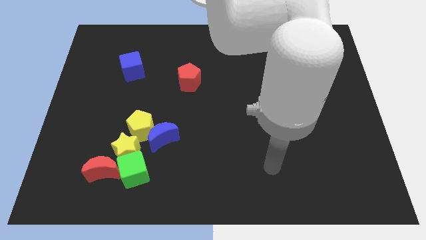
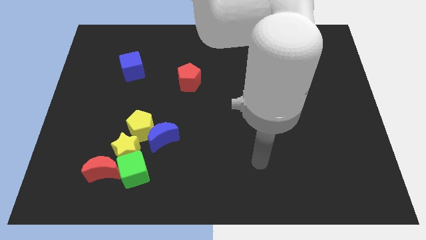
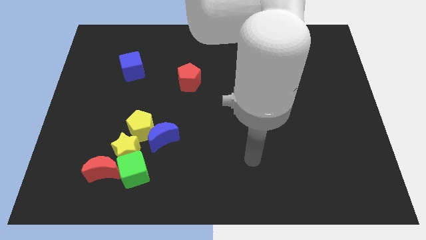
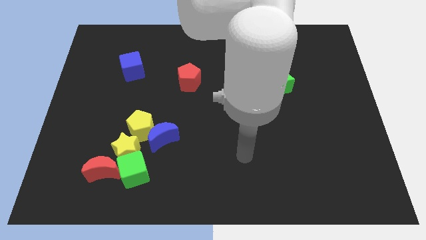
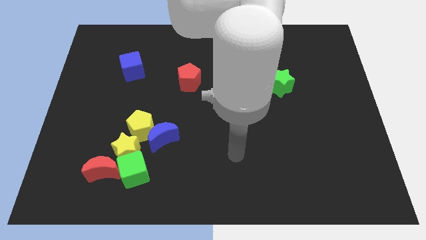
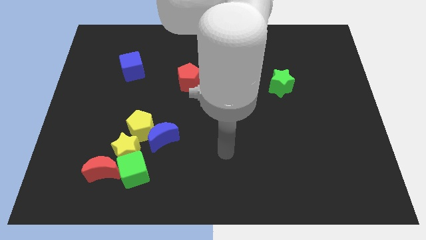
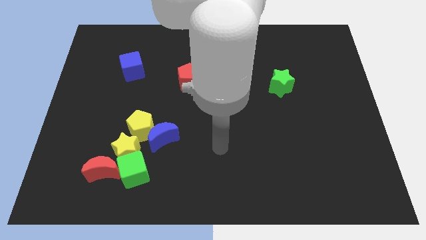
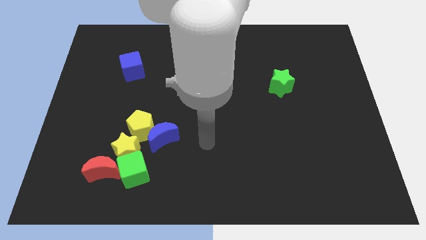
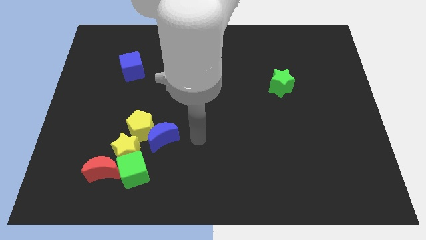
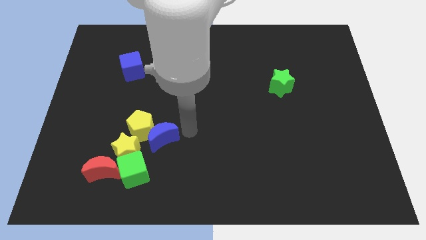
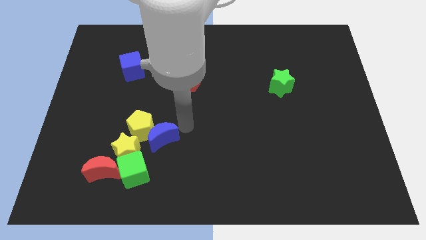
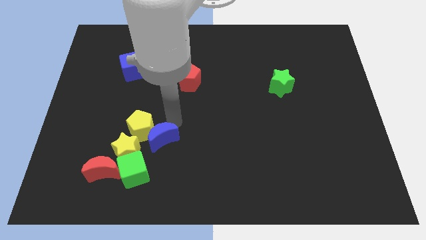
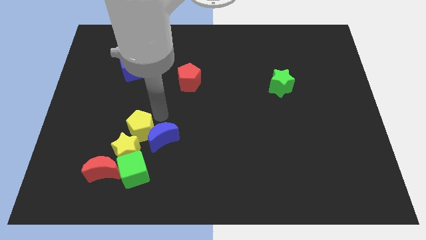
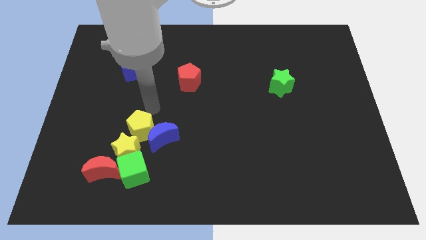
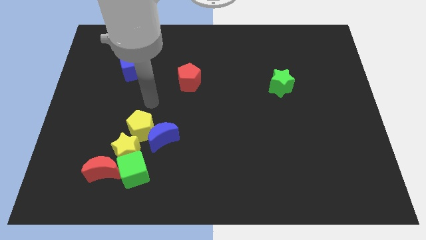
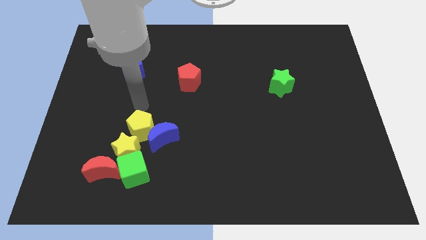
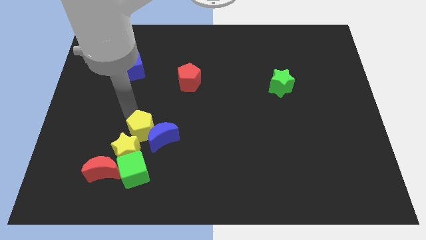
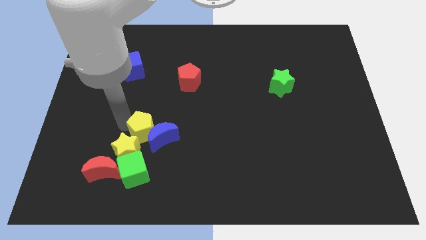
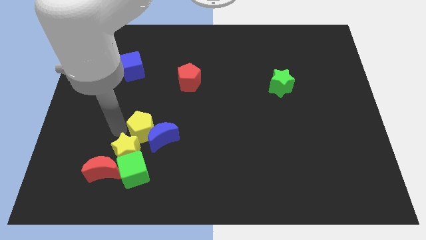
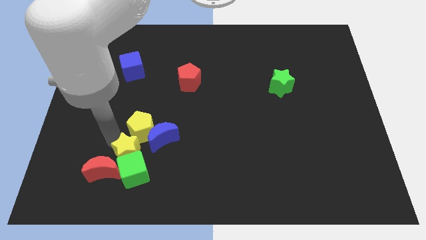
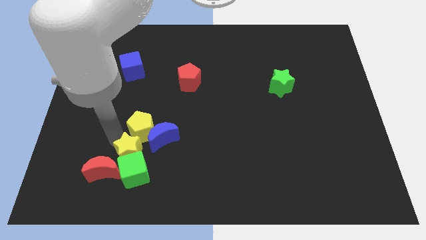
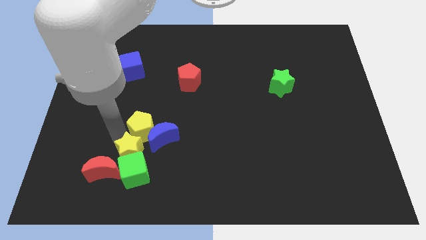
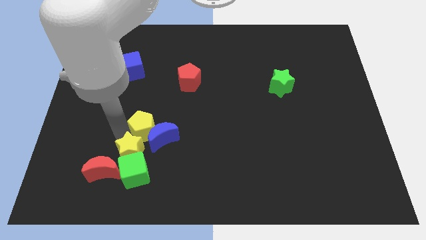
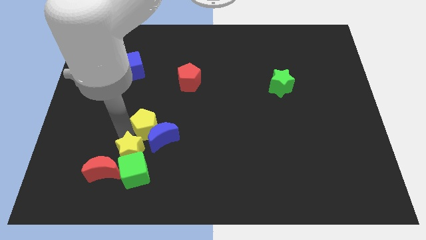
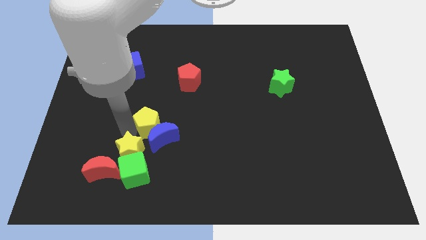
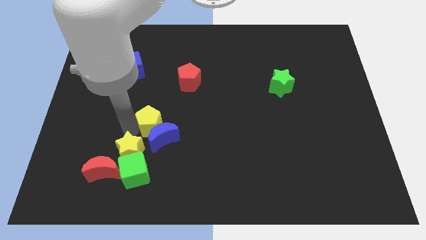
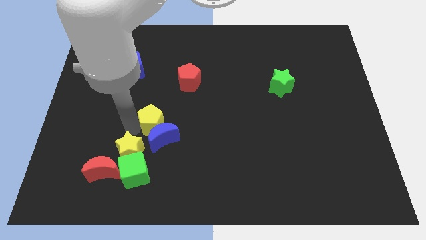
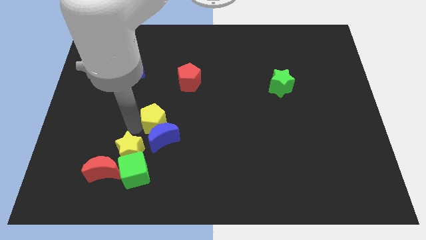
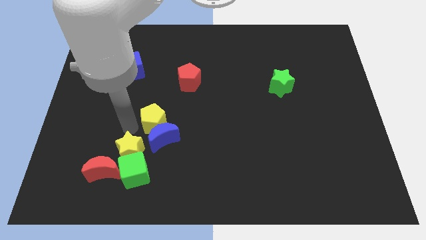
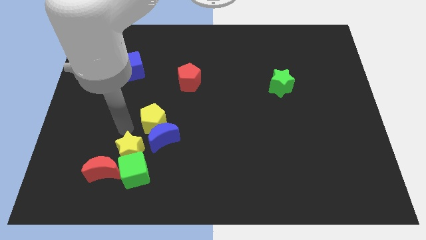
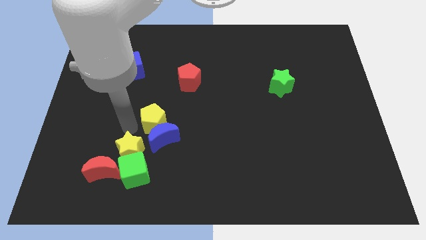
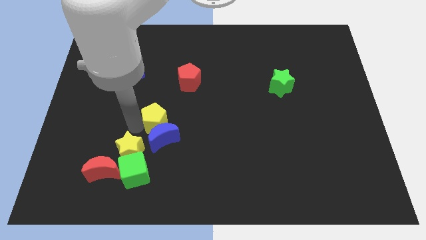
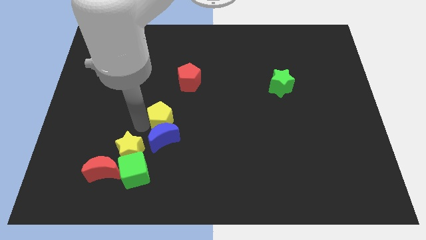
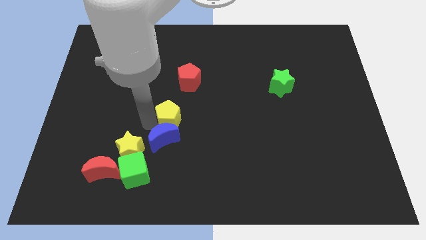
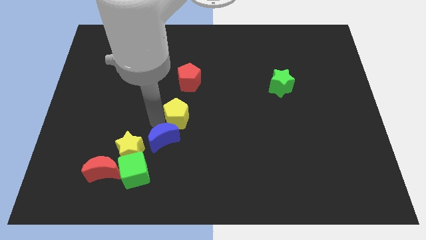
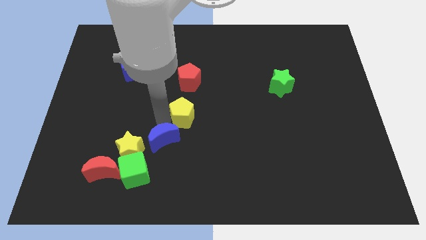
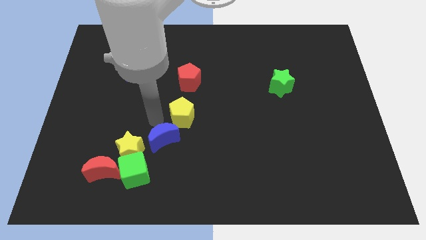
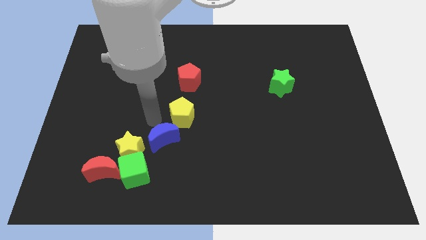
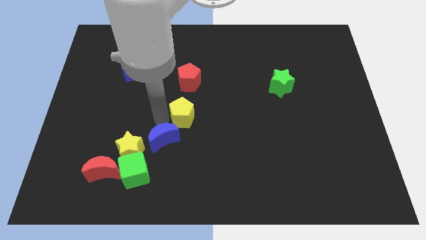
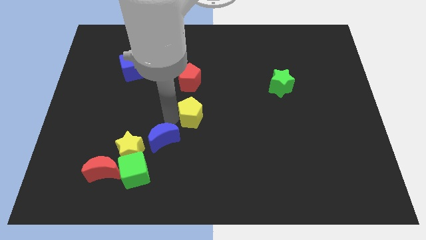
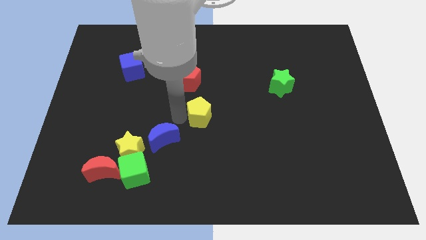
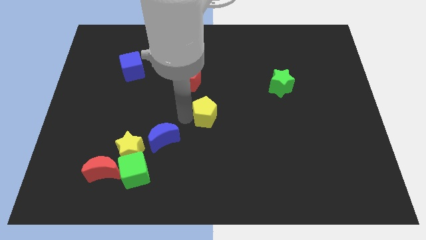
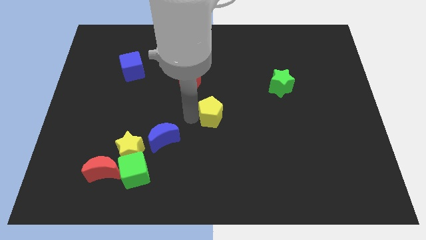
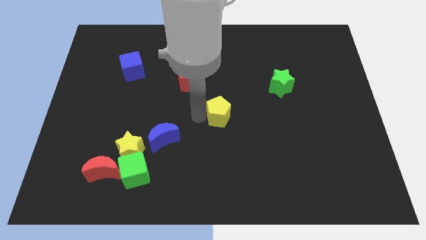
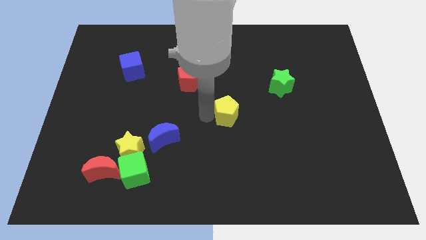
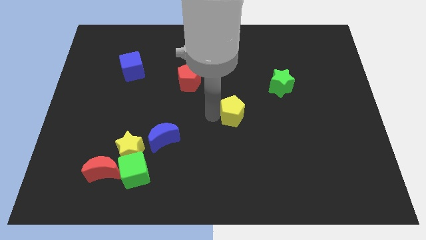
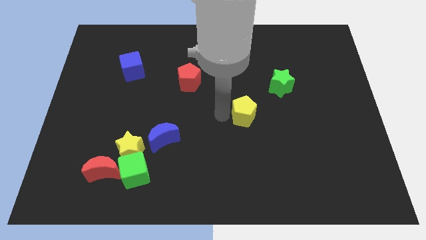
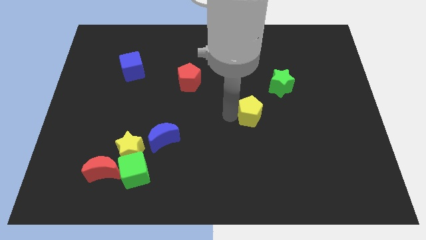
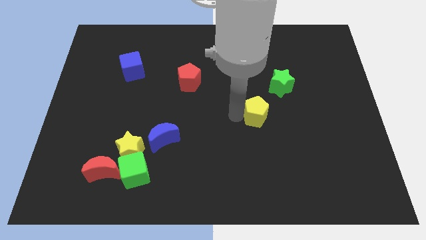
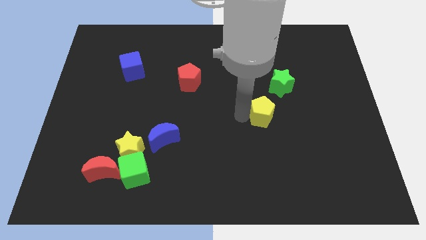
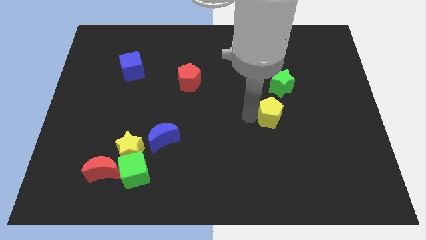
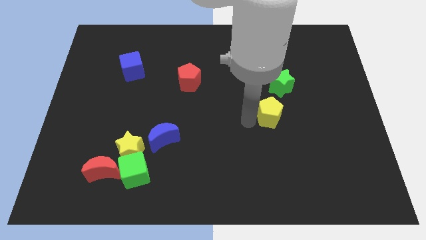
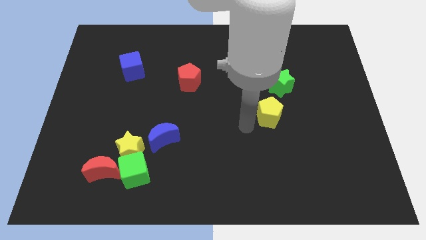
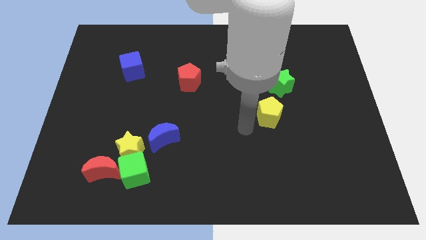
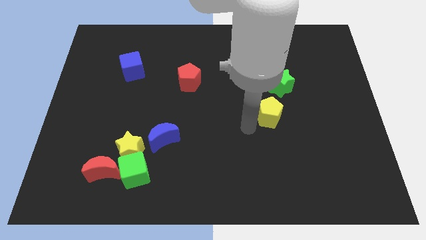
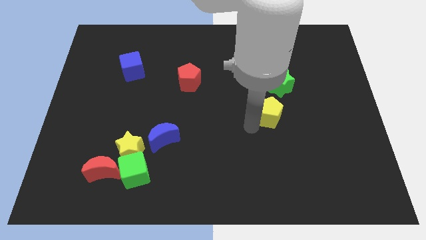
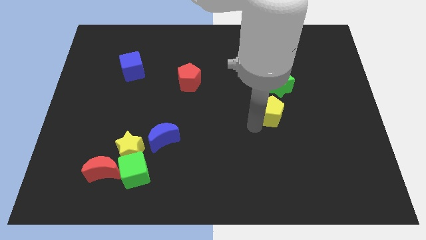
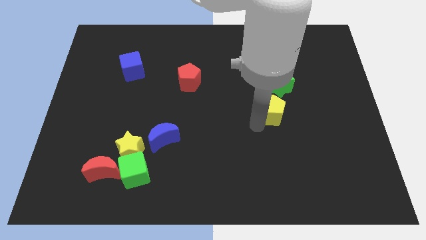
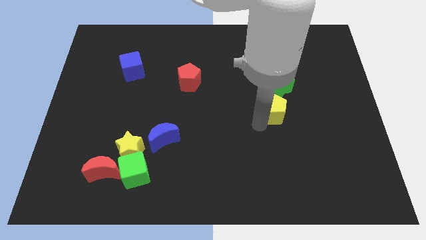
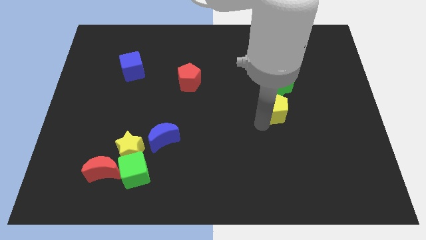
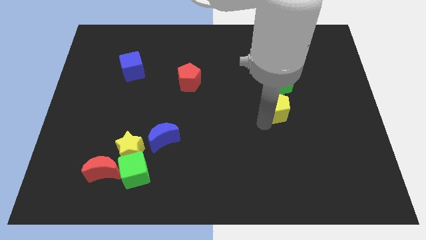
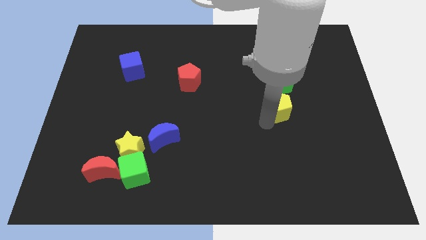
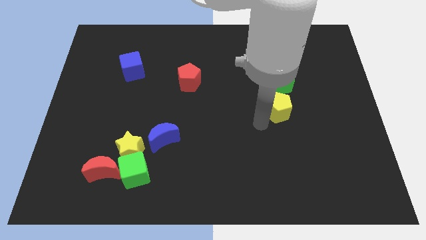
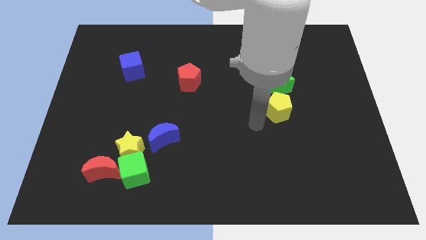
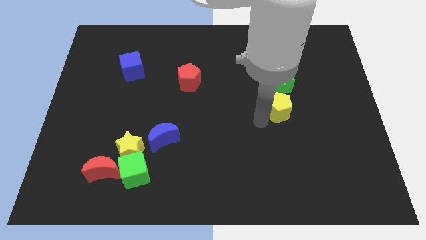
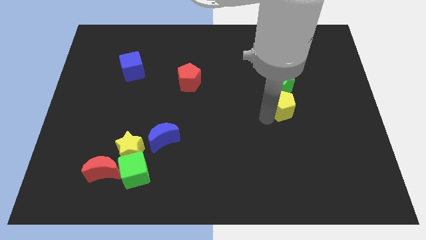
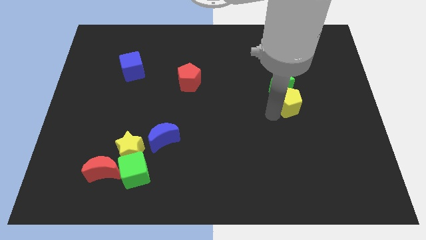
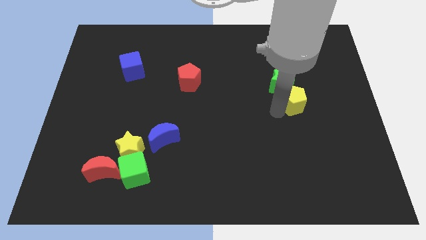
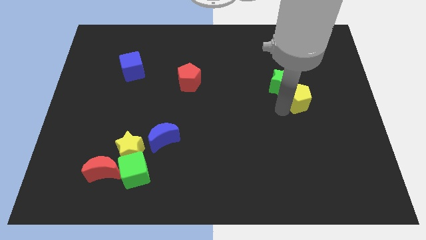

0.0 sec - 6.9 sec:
put the yellow pentagon just right of the green star
